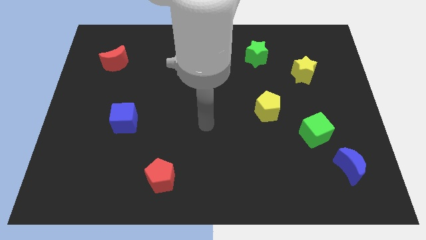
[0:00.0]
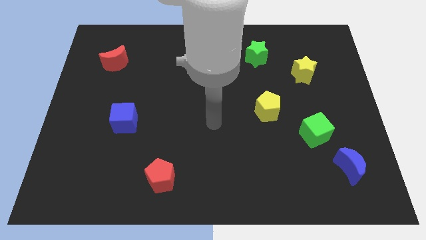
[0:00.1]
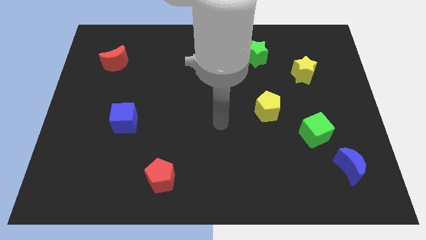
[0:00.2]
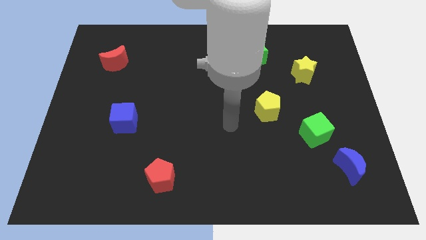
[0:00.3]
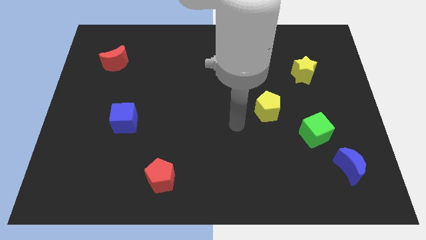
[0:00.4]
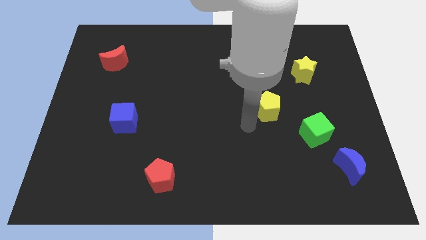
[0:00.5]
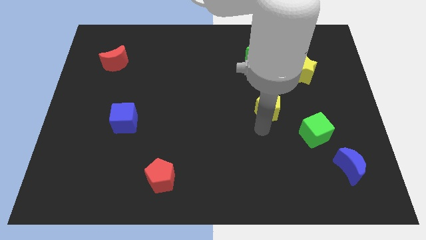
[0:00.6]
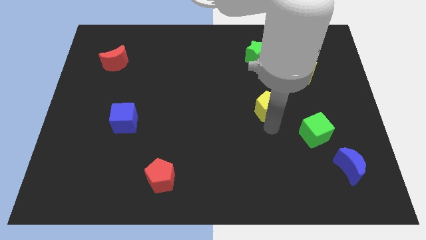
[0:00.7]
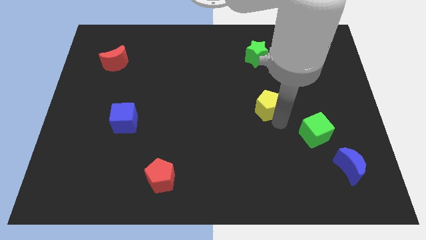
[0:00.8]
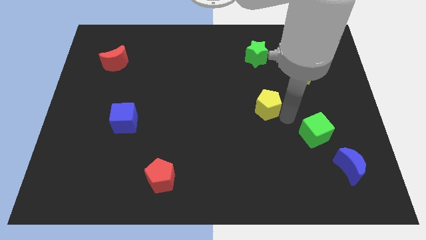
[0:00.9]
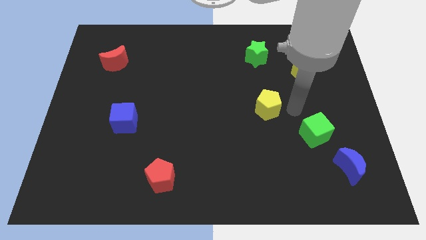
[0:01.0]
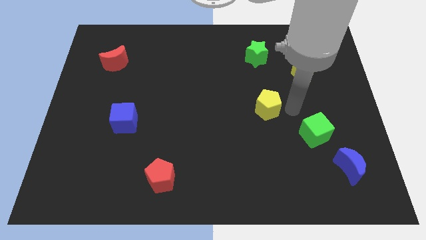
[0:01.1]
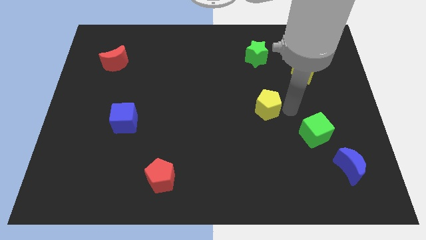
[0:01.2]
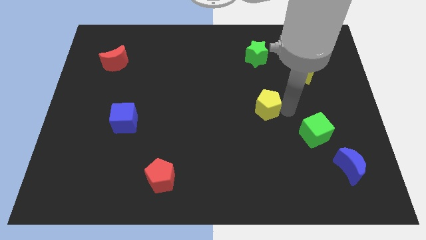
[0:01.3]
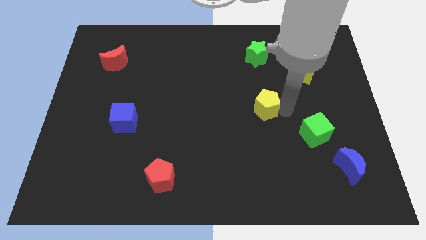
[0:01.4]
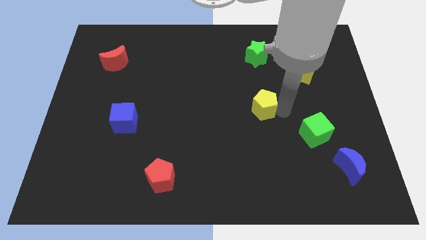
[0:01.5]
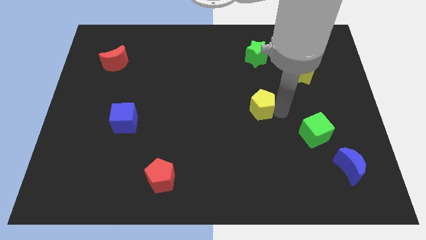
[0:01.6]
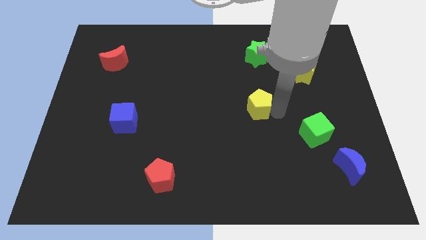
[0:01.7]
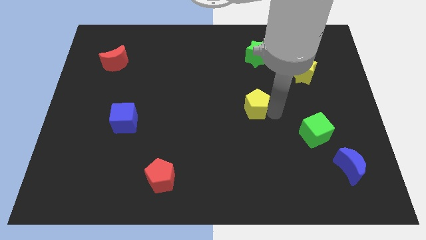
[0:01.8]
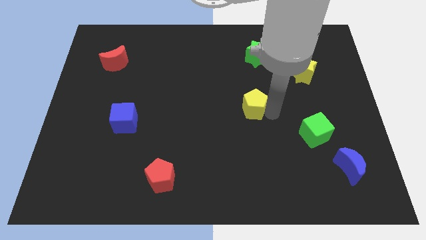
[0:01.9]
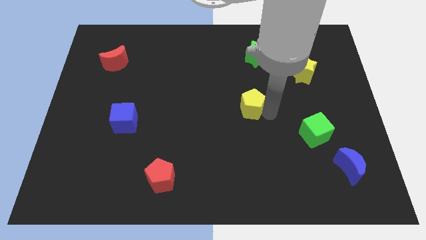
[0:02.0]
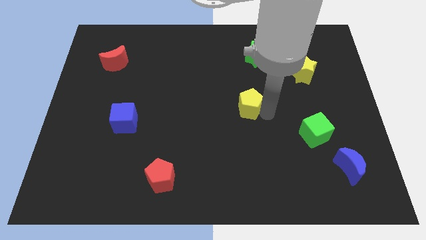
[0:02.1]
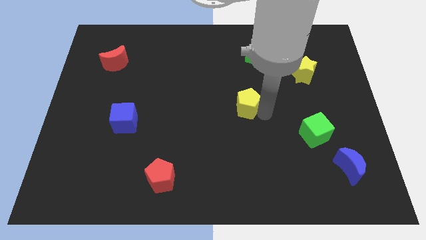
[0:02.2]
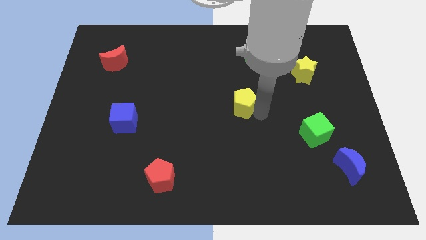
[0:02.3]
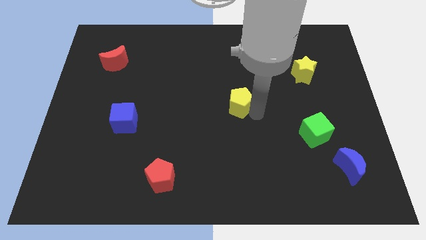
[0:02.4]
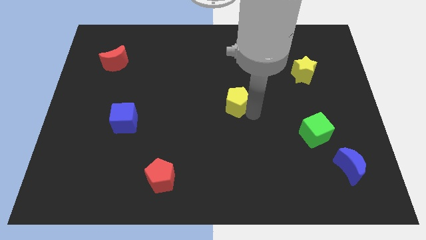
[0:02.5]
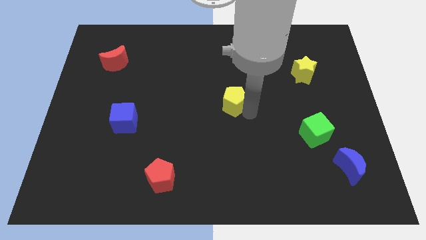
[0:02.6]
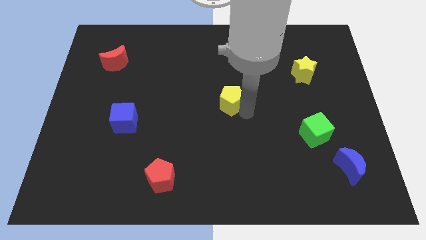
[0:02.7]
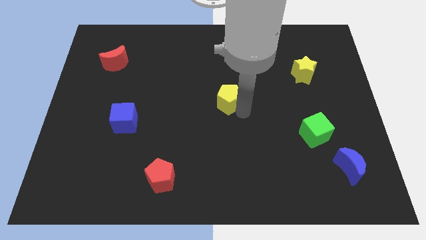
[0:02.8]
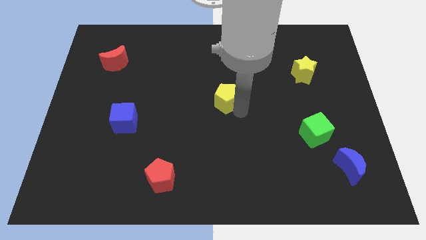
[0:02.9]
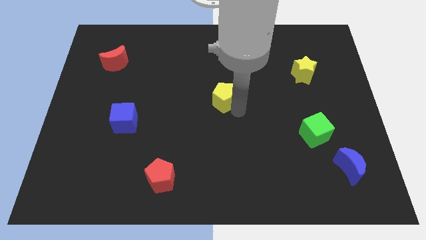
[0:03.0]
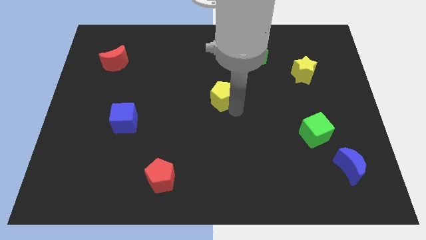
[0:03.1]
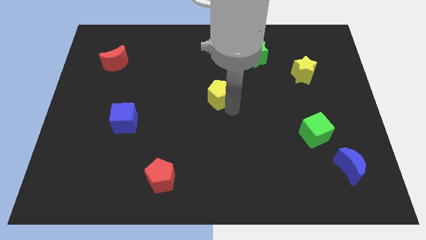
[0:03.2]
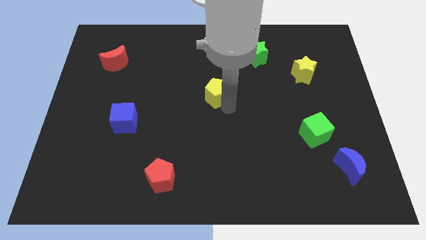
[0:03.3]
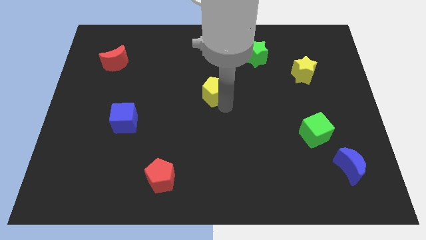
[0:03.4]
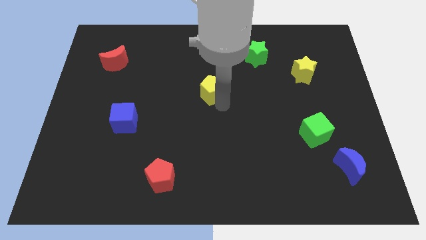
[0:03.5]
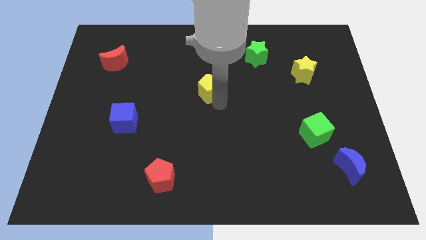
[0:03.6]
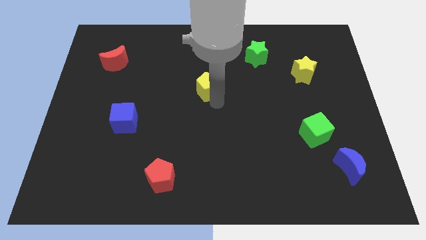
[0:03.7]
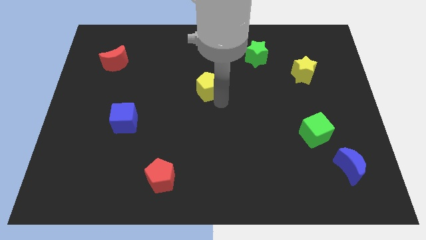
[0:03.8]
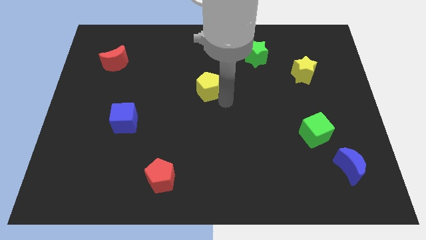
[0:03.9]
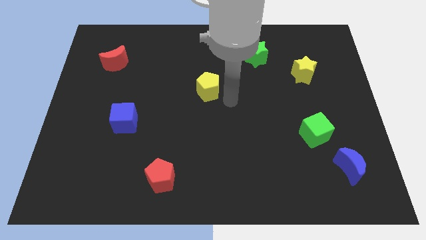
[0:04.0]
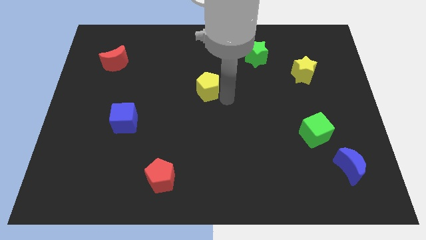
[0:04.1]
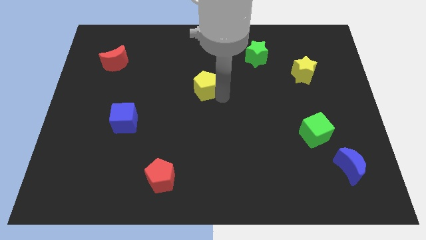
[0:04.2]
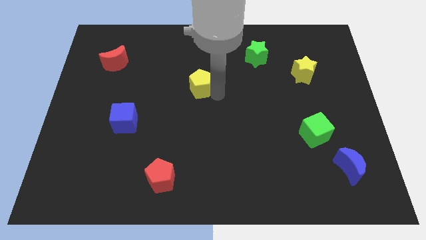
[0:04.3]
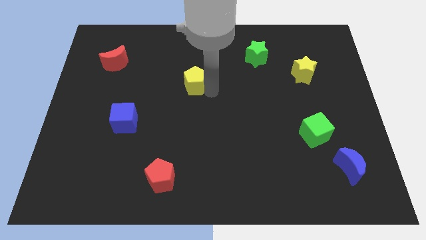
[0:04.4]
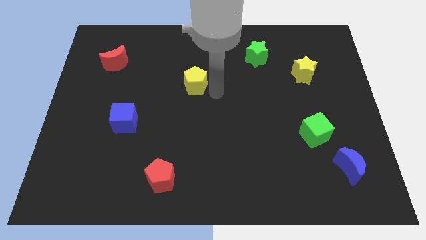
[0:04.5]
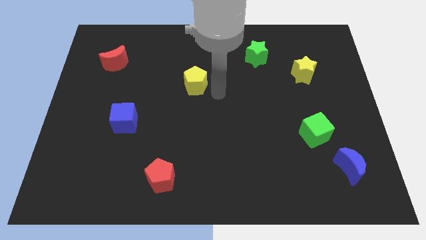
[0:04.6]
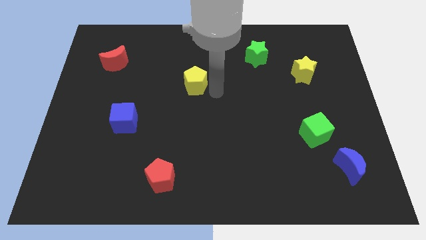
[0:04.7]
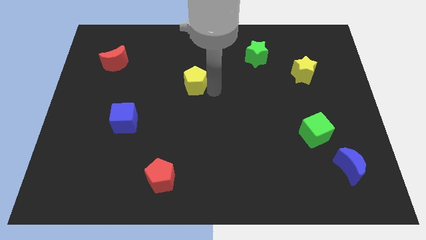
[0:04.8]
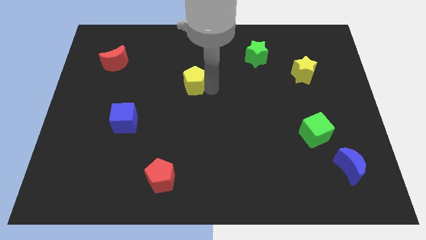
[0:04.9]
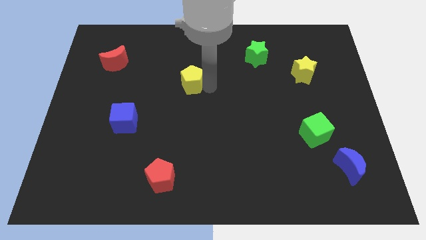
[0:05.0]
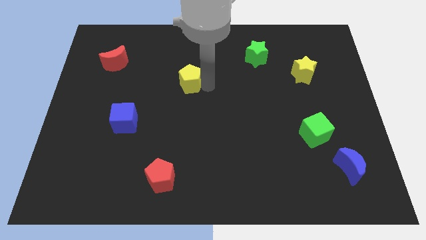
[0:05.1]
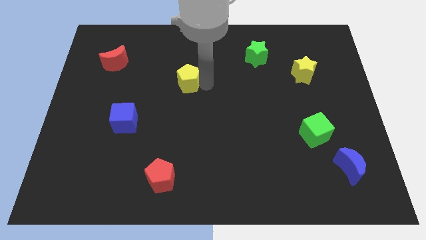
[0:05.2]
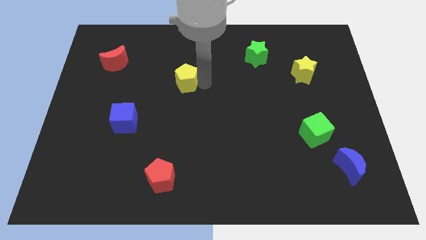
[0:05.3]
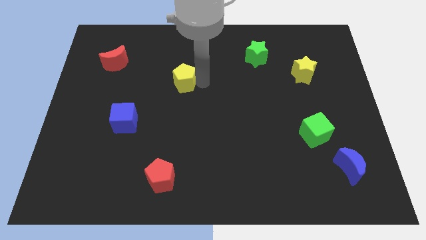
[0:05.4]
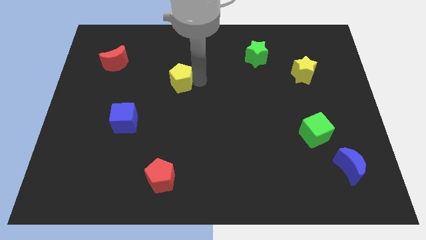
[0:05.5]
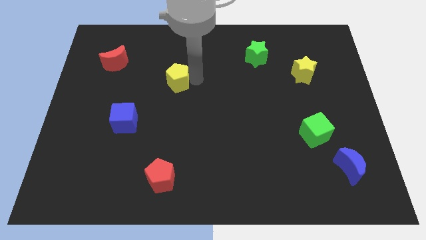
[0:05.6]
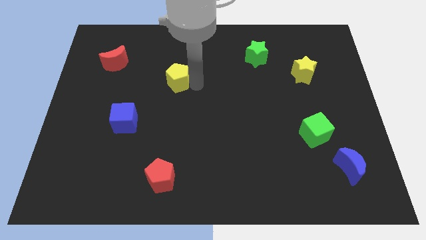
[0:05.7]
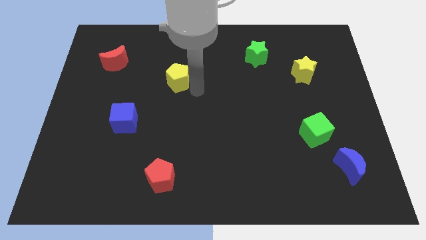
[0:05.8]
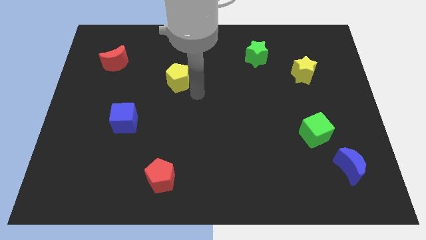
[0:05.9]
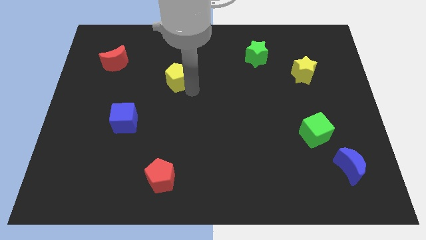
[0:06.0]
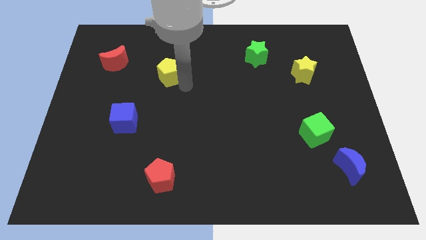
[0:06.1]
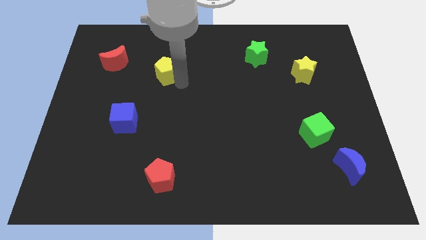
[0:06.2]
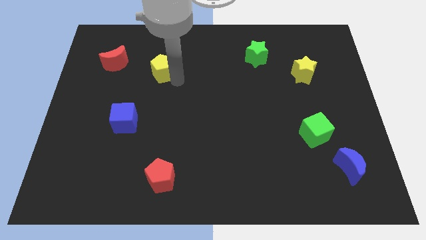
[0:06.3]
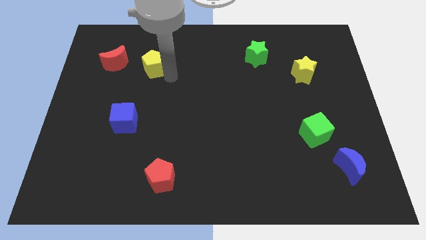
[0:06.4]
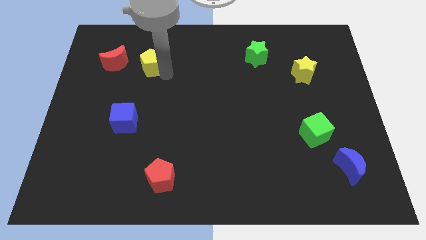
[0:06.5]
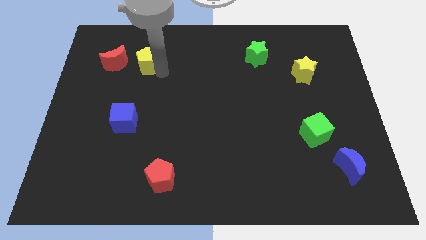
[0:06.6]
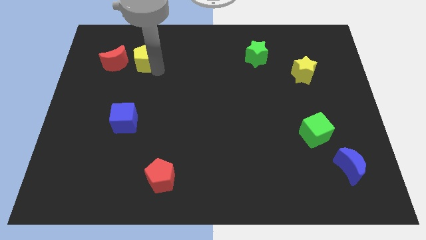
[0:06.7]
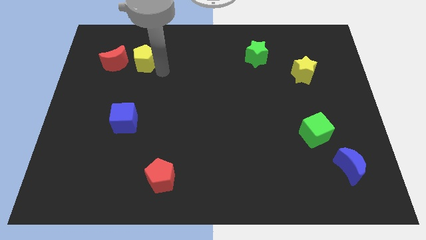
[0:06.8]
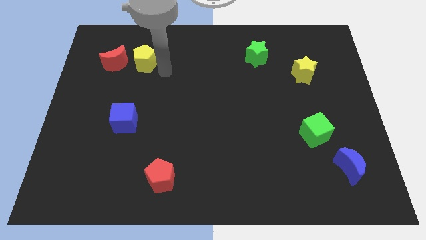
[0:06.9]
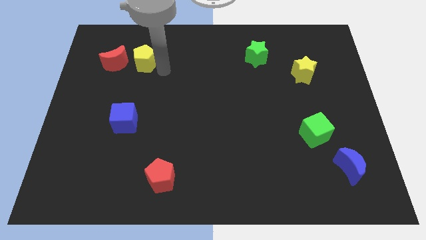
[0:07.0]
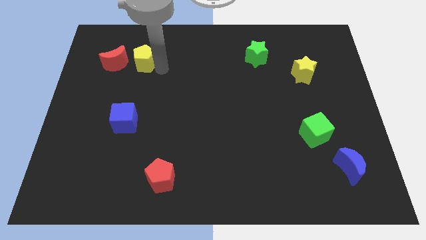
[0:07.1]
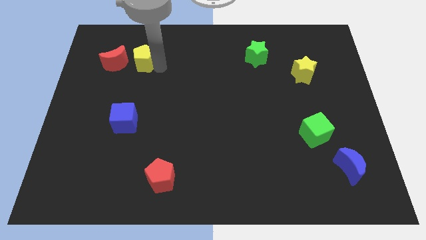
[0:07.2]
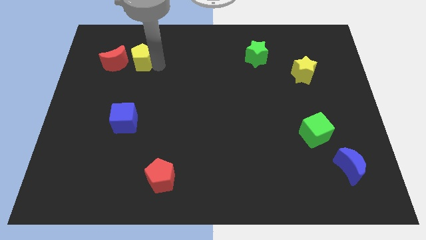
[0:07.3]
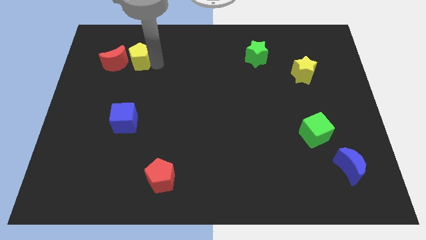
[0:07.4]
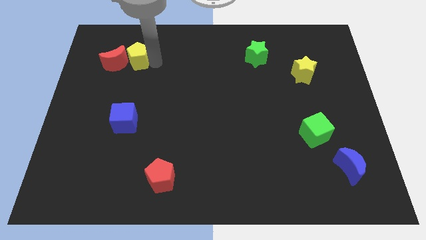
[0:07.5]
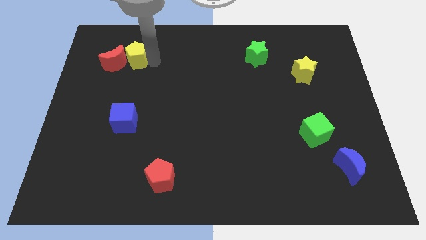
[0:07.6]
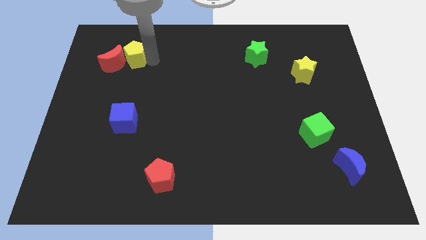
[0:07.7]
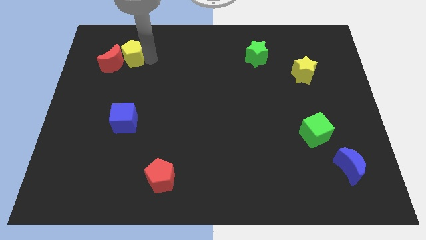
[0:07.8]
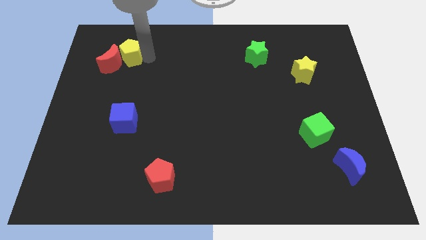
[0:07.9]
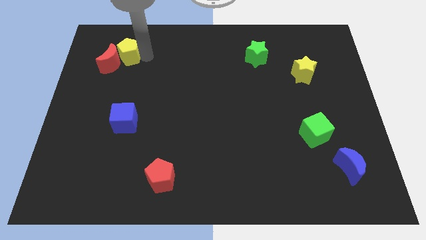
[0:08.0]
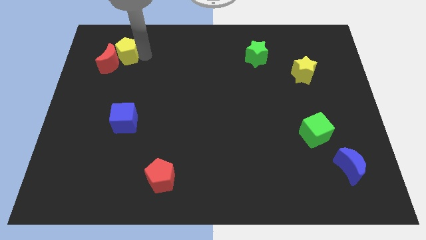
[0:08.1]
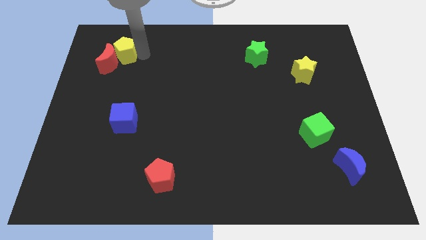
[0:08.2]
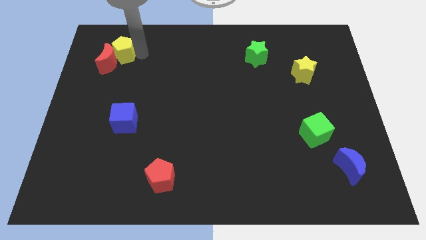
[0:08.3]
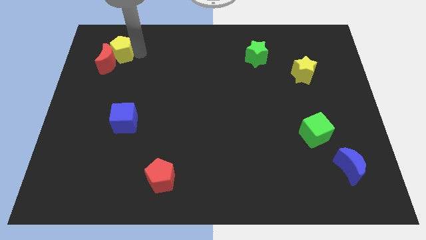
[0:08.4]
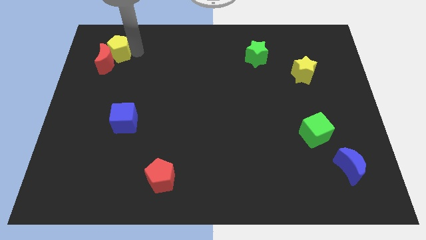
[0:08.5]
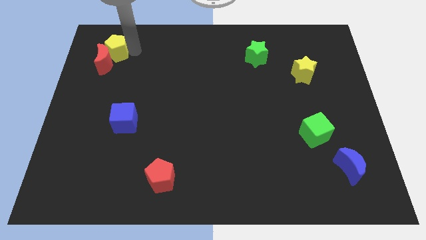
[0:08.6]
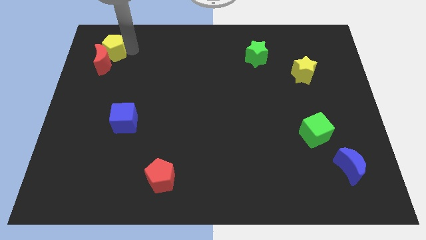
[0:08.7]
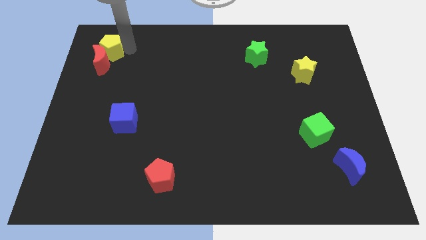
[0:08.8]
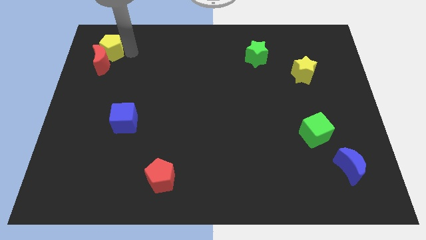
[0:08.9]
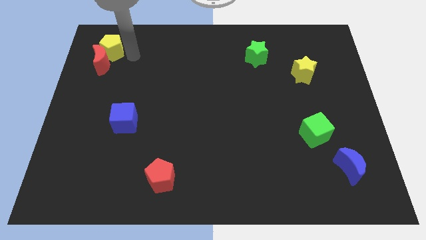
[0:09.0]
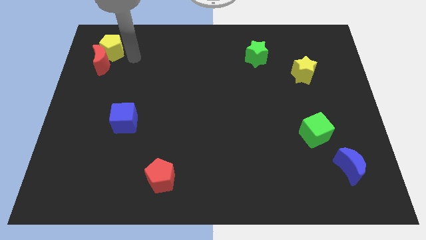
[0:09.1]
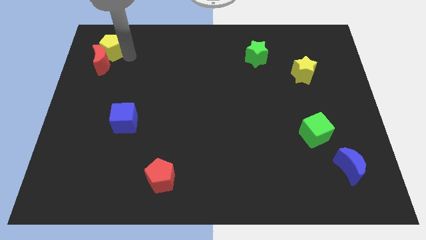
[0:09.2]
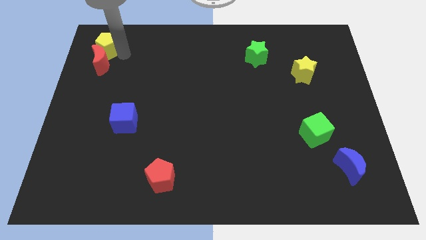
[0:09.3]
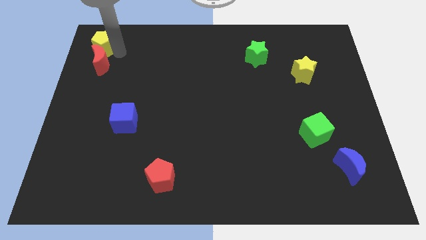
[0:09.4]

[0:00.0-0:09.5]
move the yellow pentagon to the top left of the board
